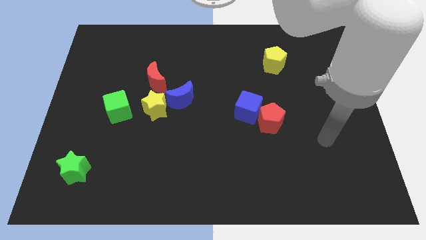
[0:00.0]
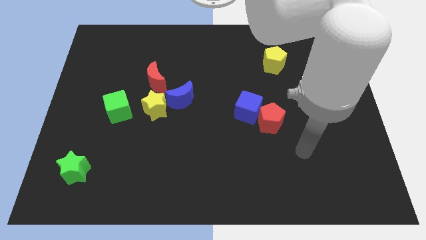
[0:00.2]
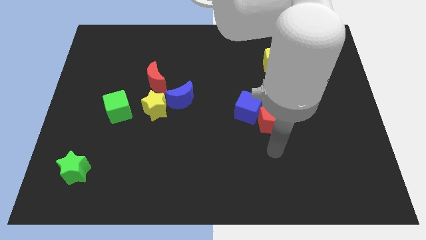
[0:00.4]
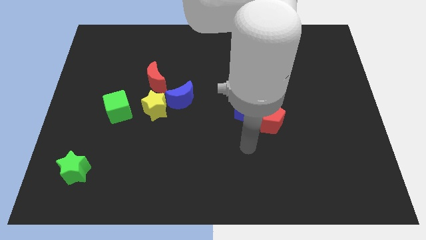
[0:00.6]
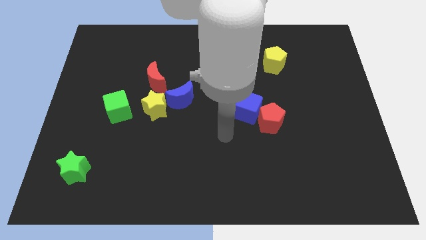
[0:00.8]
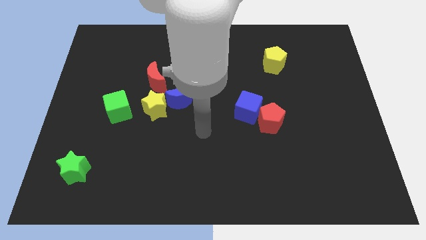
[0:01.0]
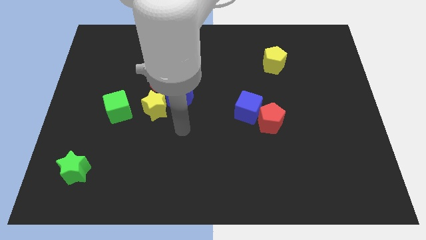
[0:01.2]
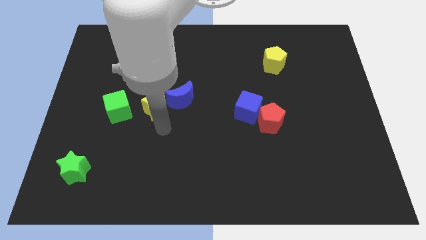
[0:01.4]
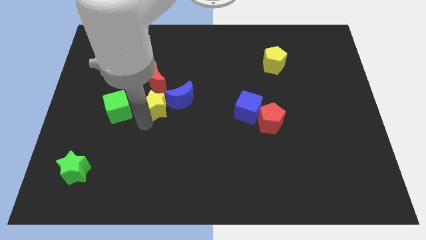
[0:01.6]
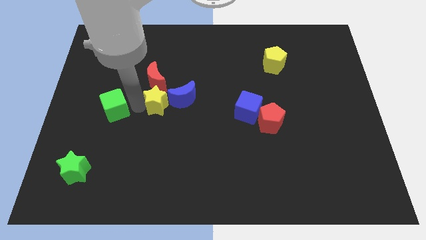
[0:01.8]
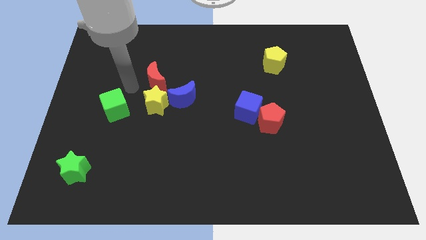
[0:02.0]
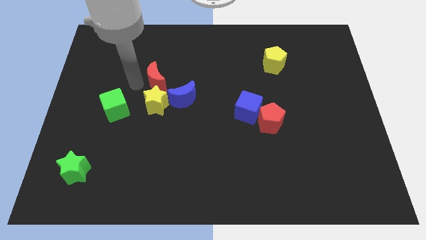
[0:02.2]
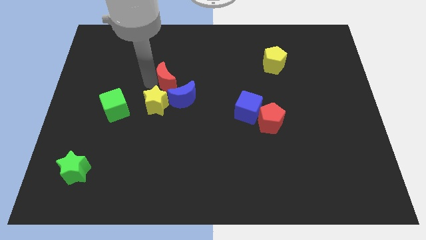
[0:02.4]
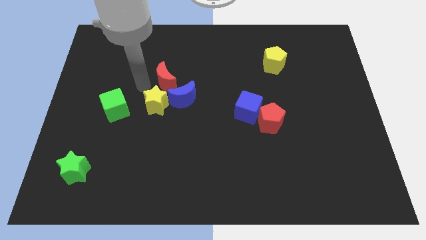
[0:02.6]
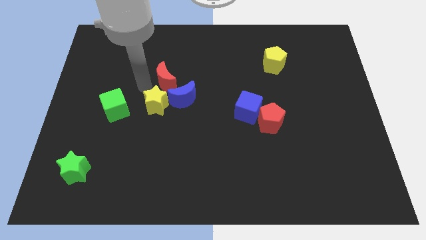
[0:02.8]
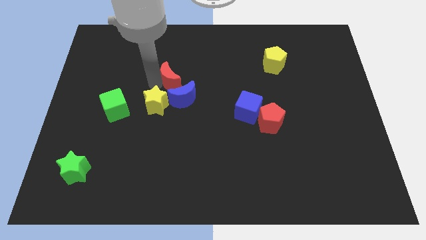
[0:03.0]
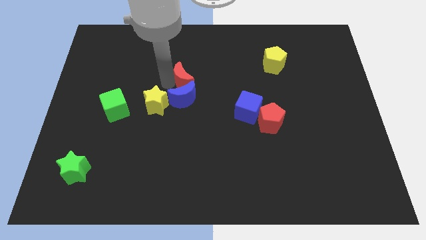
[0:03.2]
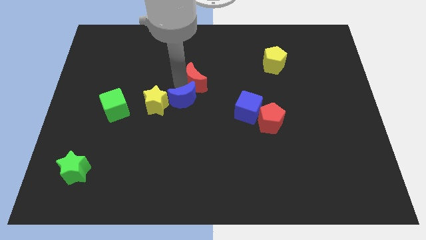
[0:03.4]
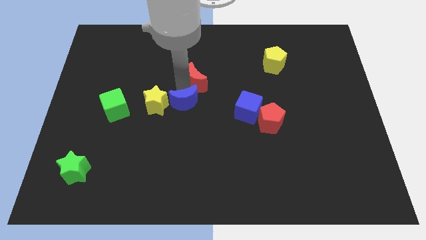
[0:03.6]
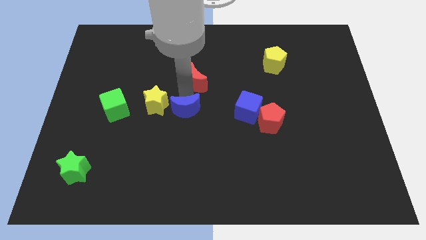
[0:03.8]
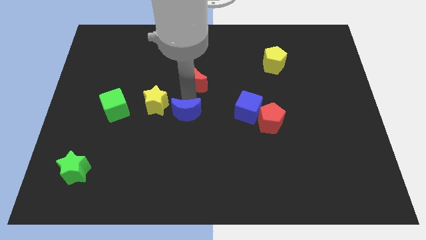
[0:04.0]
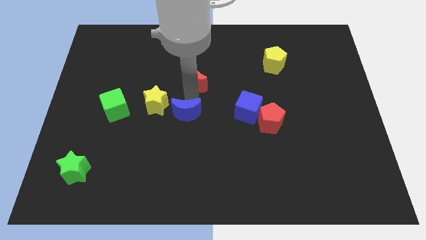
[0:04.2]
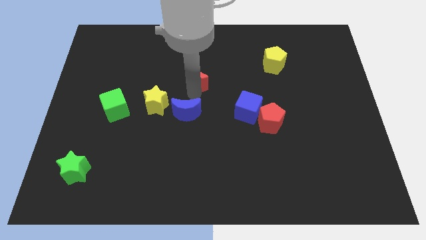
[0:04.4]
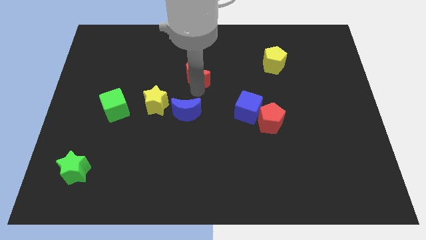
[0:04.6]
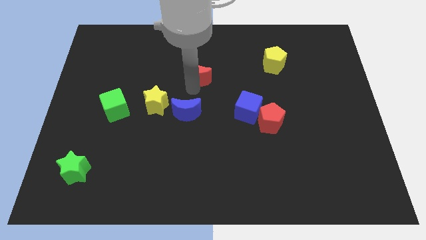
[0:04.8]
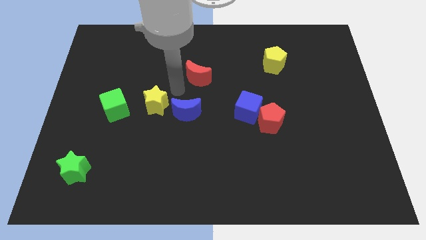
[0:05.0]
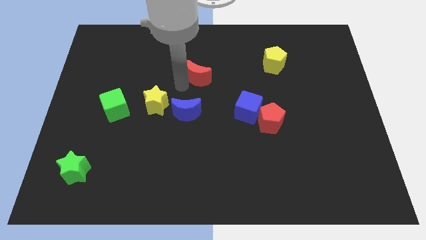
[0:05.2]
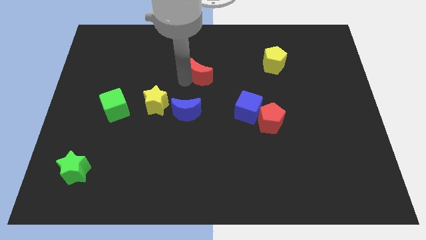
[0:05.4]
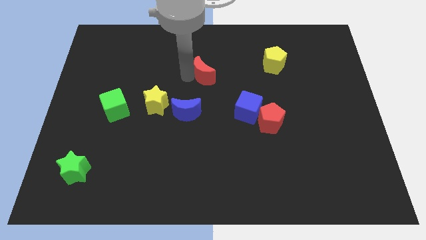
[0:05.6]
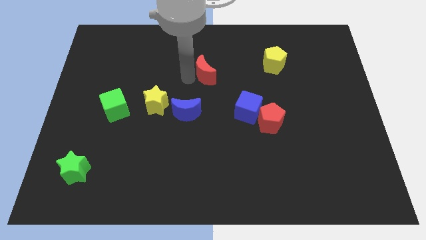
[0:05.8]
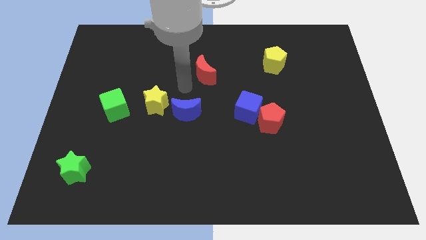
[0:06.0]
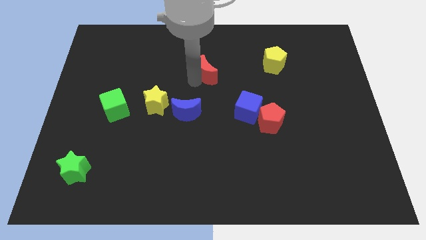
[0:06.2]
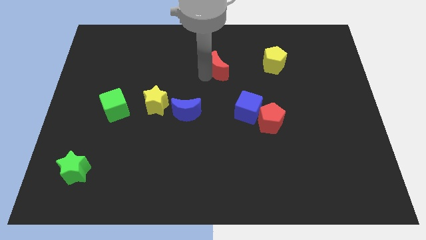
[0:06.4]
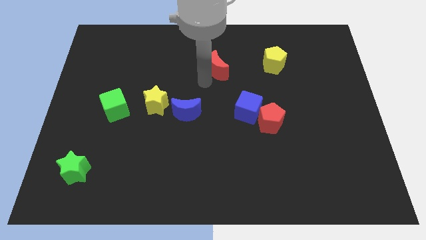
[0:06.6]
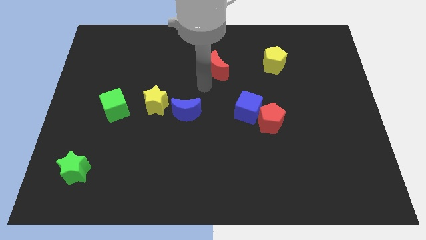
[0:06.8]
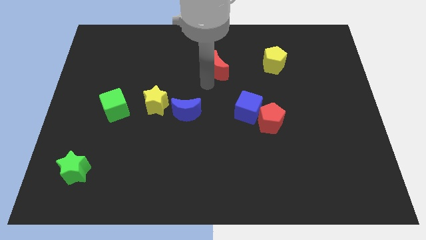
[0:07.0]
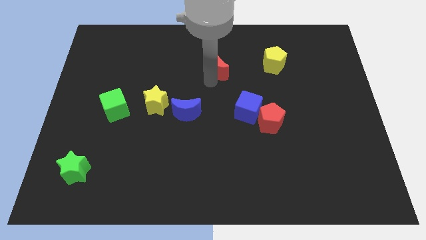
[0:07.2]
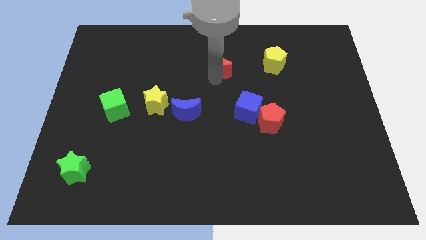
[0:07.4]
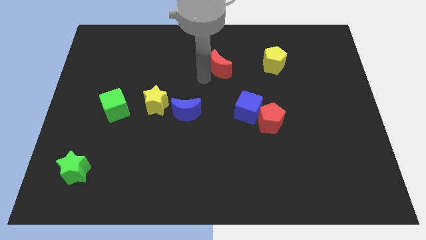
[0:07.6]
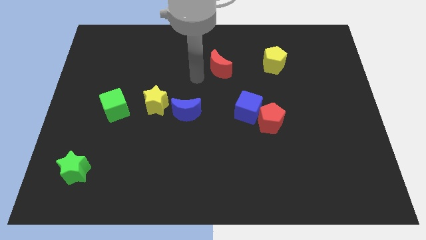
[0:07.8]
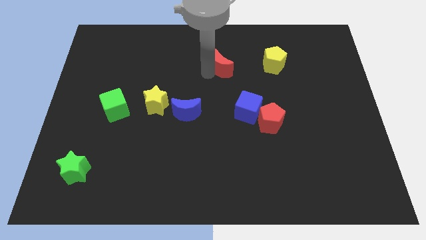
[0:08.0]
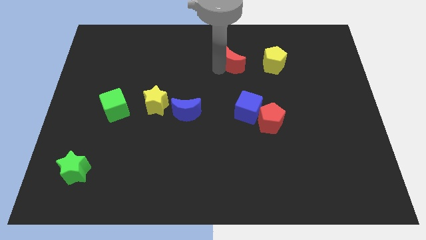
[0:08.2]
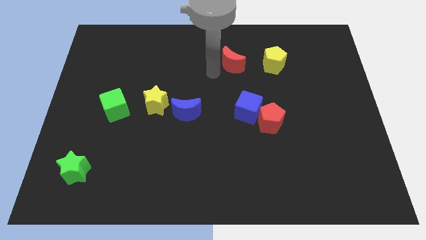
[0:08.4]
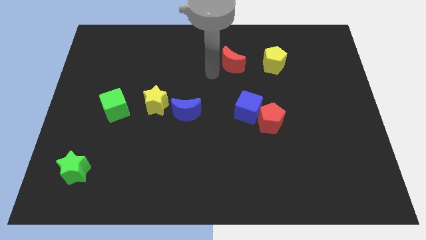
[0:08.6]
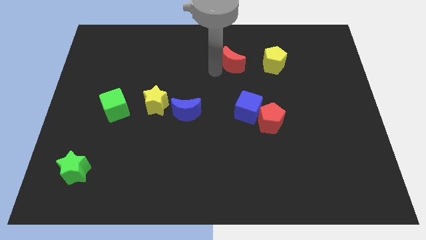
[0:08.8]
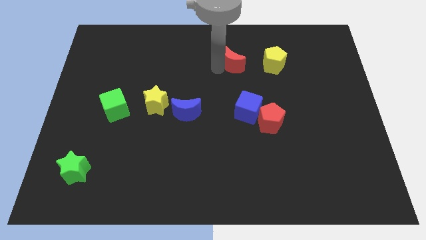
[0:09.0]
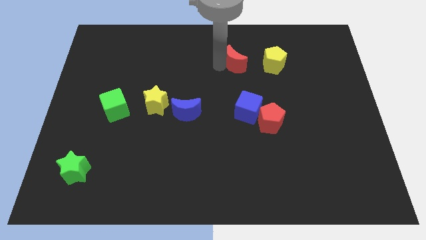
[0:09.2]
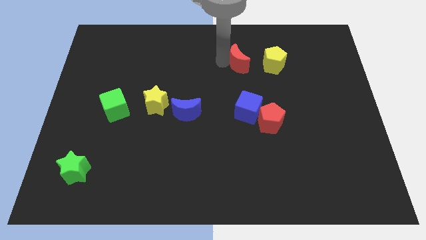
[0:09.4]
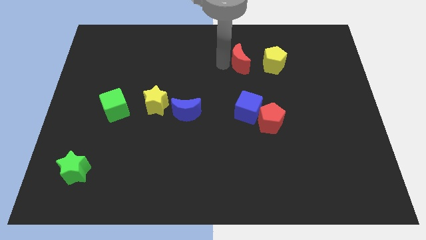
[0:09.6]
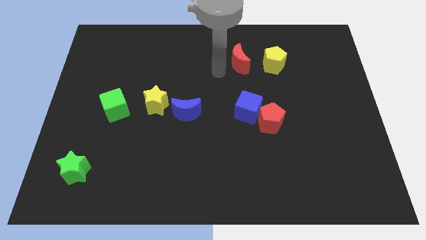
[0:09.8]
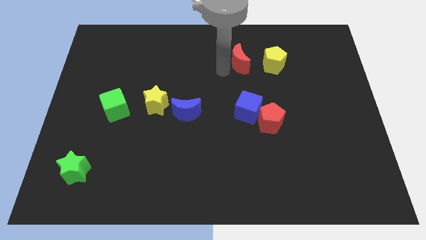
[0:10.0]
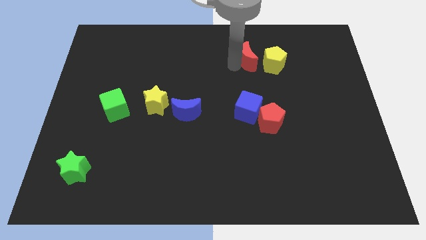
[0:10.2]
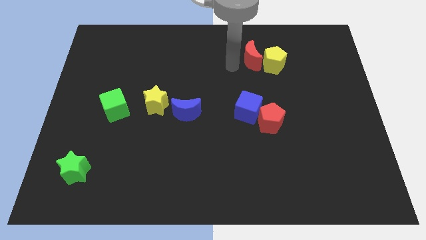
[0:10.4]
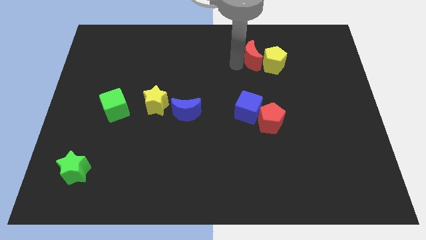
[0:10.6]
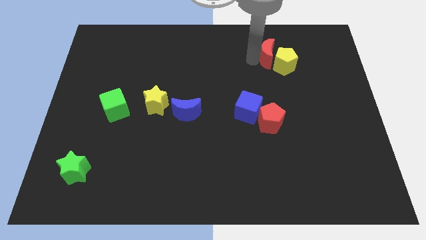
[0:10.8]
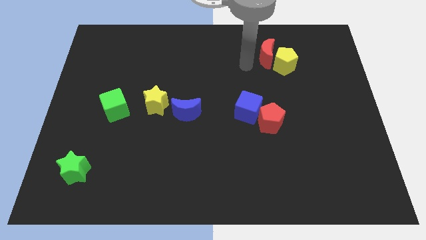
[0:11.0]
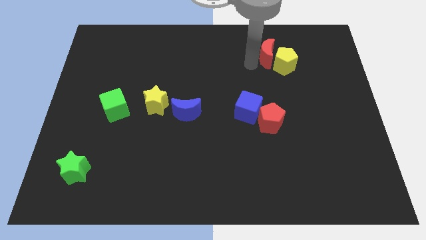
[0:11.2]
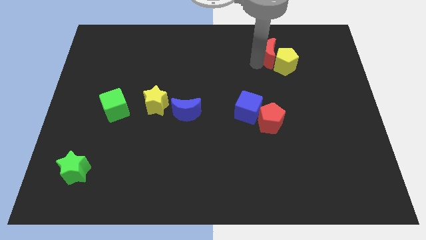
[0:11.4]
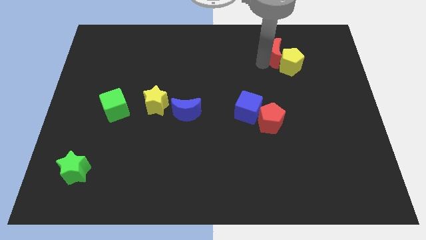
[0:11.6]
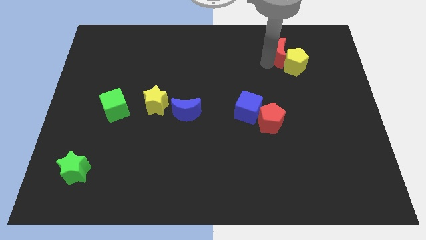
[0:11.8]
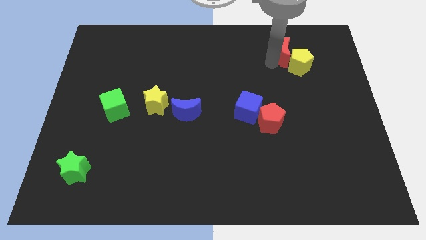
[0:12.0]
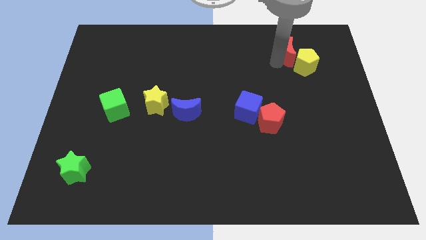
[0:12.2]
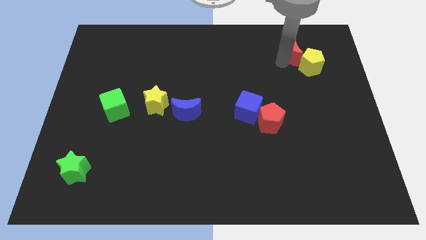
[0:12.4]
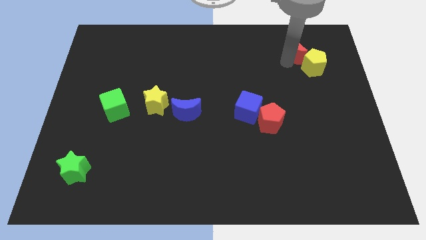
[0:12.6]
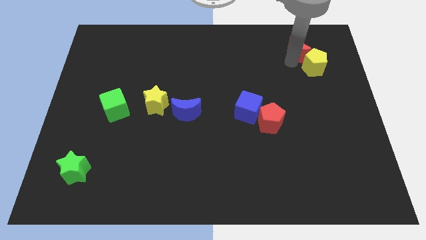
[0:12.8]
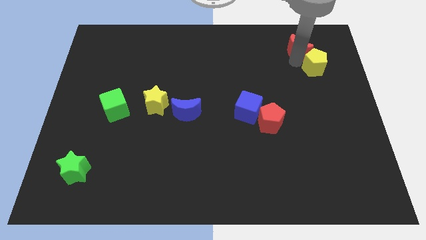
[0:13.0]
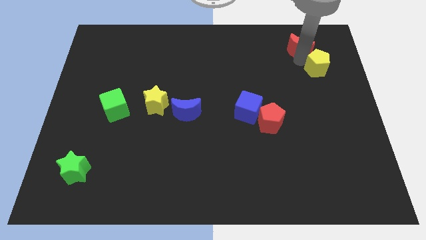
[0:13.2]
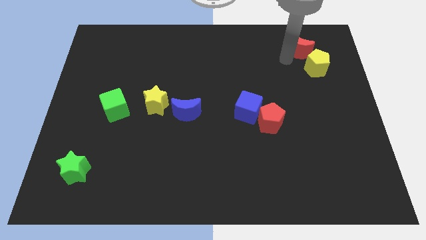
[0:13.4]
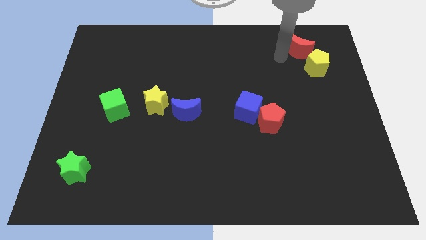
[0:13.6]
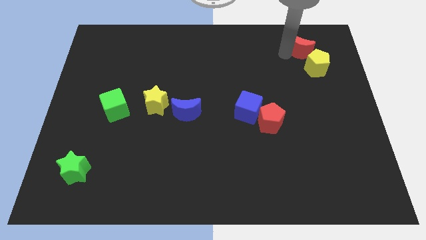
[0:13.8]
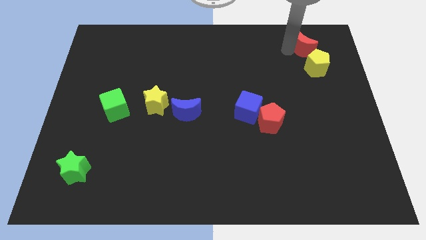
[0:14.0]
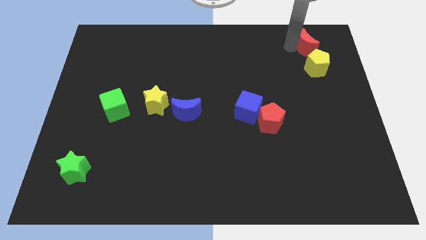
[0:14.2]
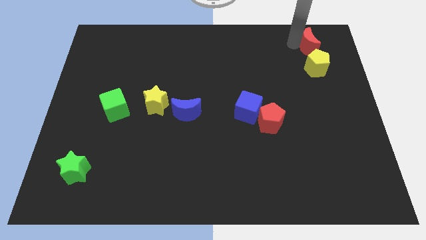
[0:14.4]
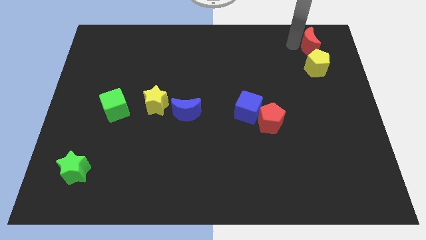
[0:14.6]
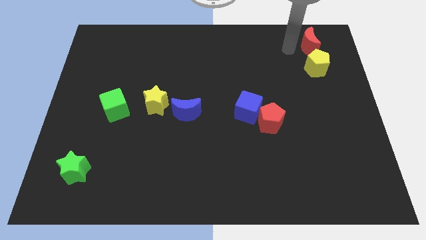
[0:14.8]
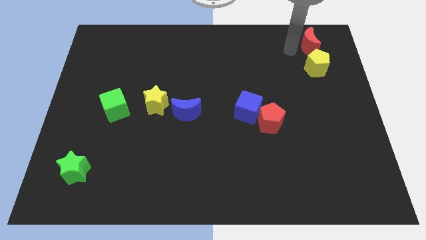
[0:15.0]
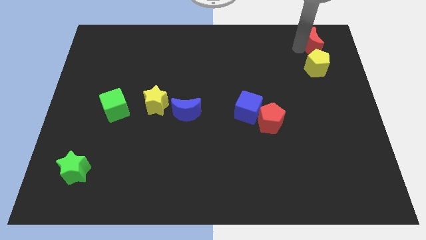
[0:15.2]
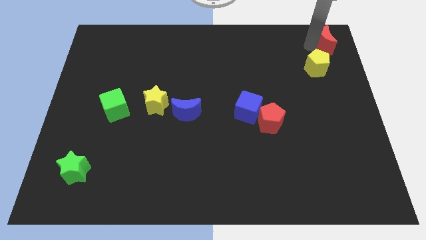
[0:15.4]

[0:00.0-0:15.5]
put the red moon to the upper right corner
